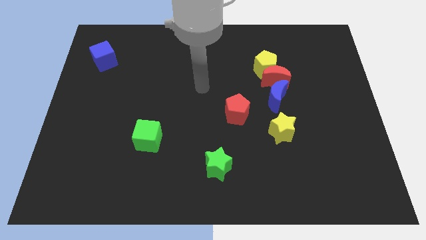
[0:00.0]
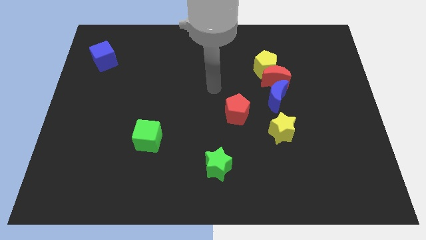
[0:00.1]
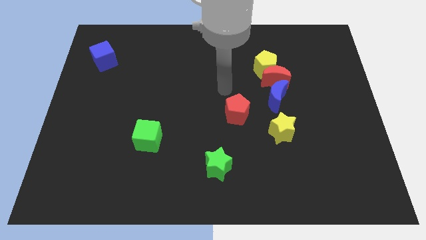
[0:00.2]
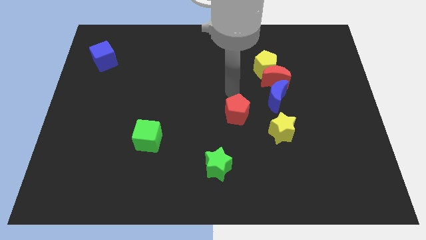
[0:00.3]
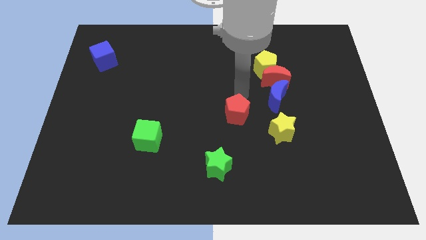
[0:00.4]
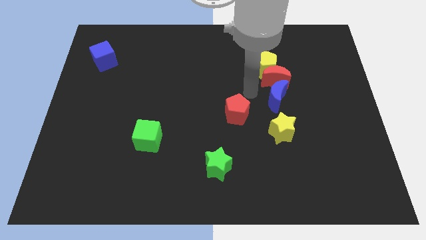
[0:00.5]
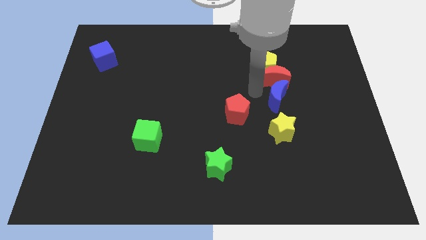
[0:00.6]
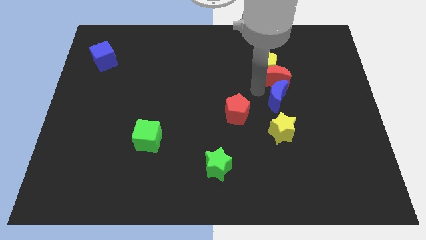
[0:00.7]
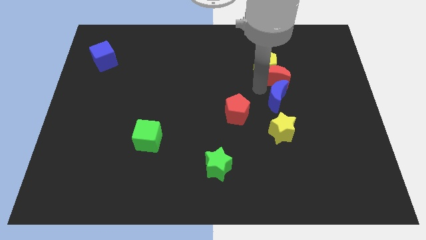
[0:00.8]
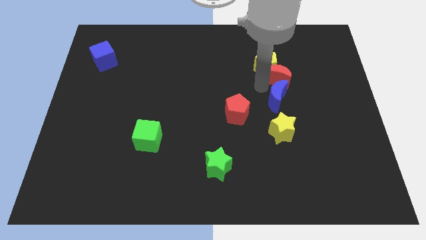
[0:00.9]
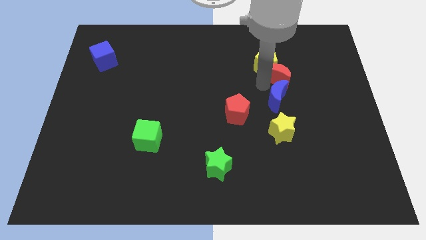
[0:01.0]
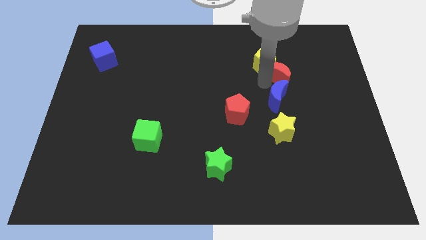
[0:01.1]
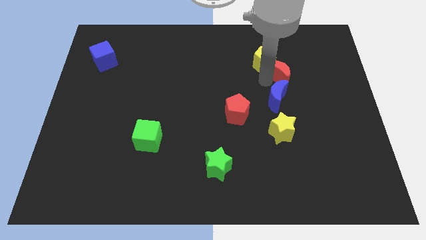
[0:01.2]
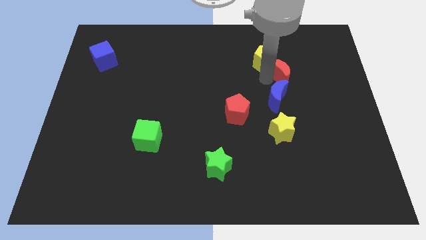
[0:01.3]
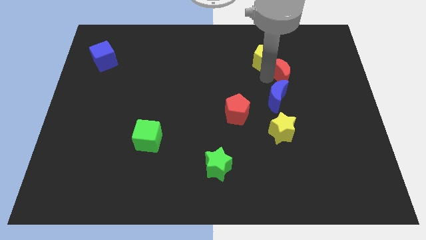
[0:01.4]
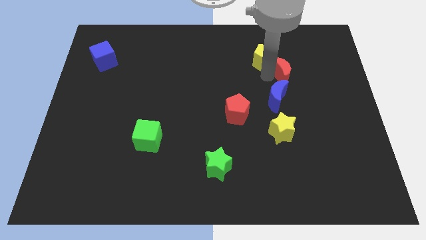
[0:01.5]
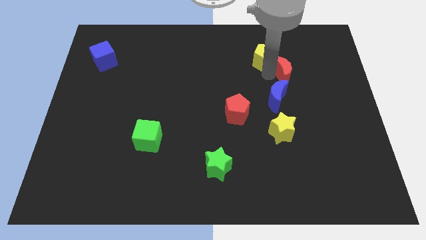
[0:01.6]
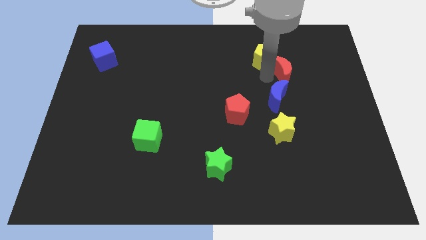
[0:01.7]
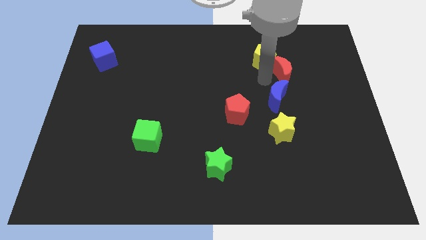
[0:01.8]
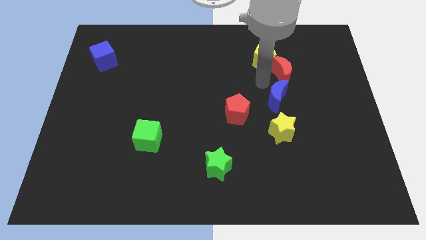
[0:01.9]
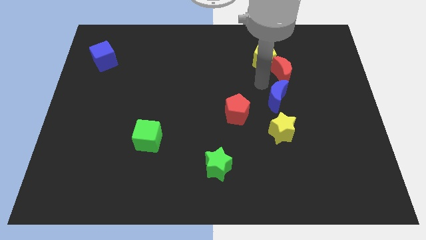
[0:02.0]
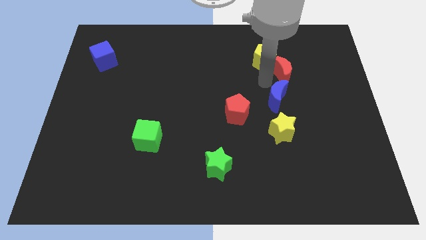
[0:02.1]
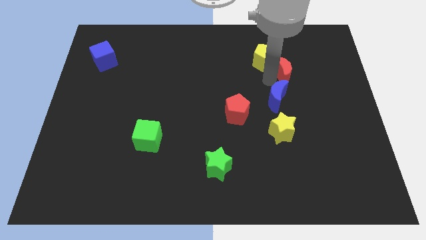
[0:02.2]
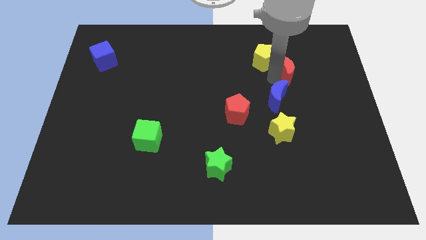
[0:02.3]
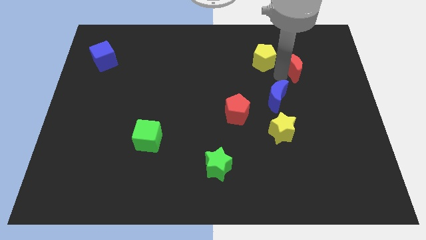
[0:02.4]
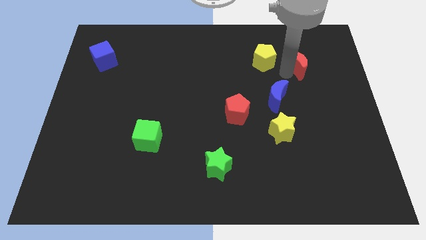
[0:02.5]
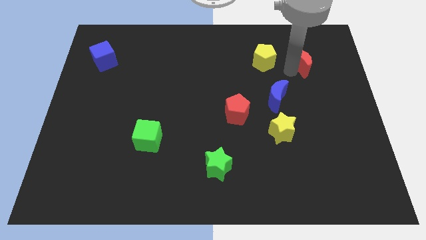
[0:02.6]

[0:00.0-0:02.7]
pull the red moon apart from the yellow pentagon and blue moon

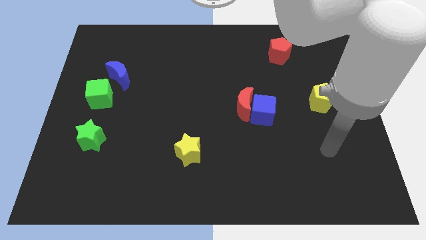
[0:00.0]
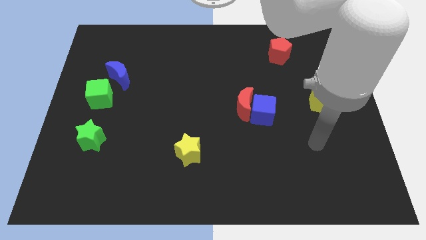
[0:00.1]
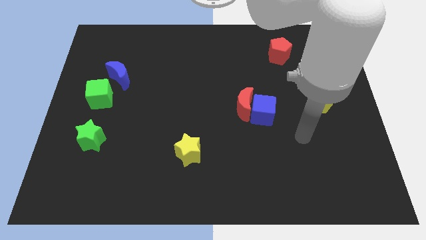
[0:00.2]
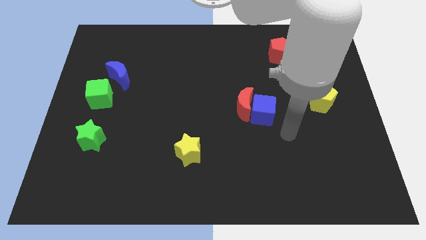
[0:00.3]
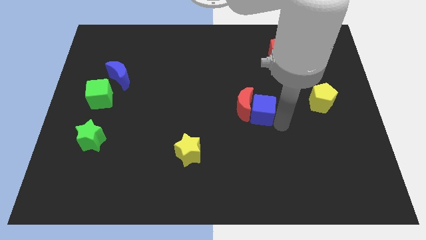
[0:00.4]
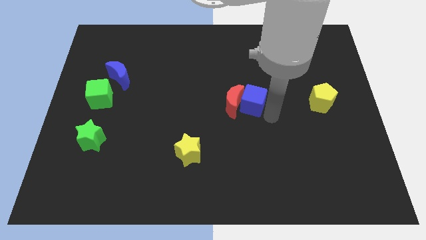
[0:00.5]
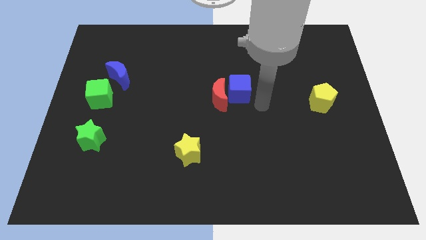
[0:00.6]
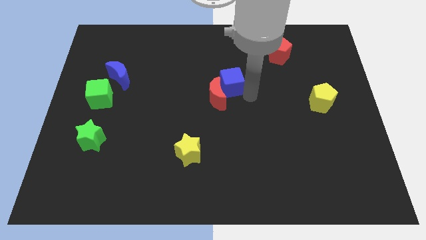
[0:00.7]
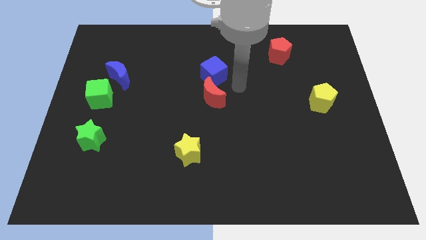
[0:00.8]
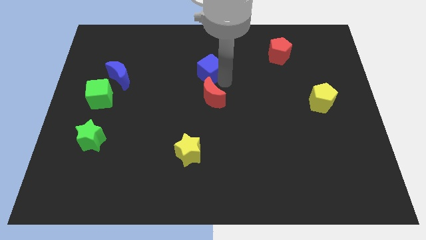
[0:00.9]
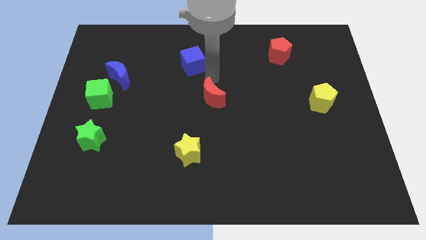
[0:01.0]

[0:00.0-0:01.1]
pull the red moon apart from the blue cube

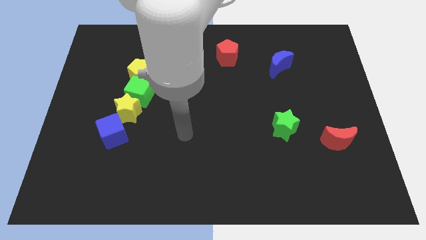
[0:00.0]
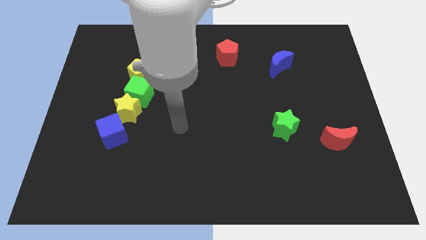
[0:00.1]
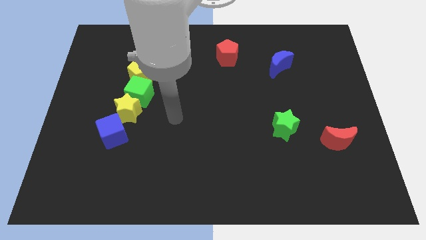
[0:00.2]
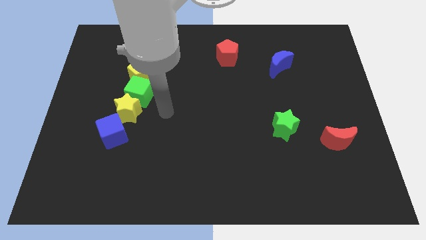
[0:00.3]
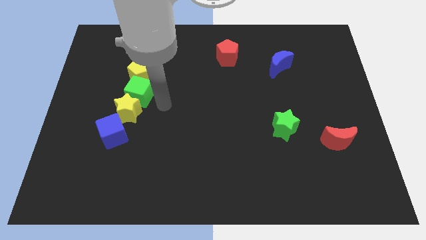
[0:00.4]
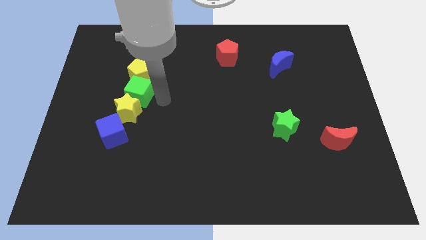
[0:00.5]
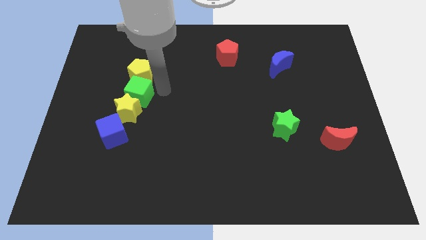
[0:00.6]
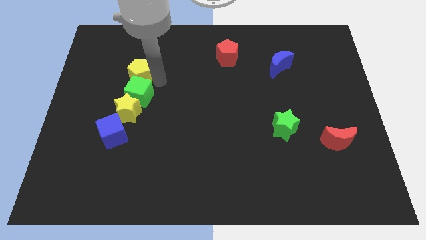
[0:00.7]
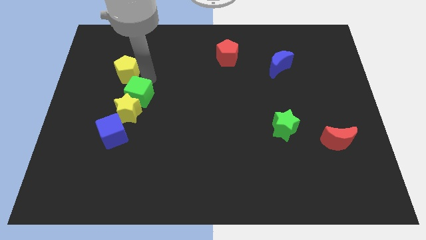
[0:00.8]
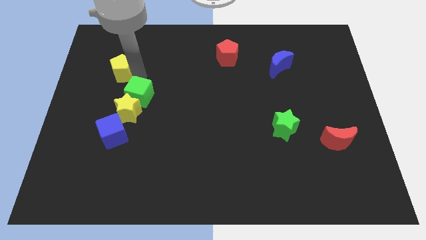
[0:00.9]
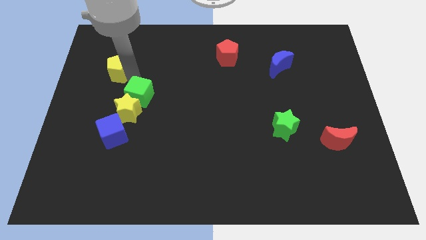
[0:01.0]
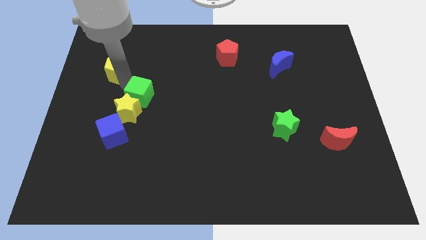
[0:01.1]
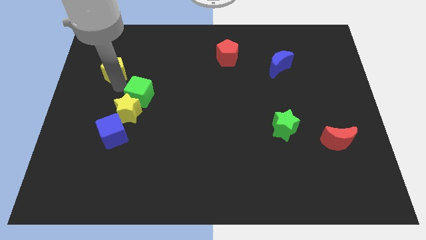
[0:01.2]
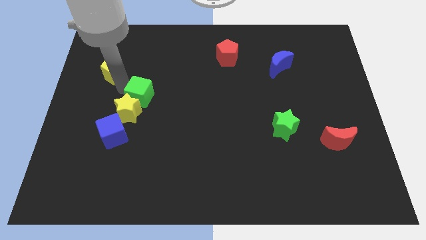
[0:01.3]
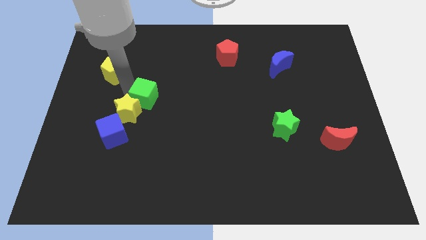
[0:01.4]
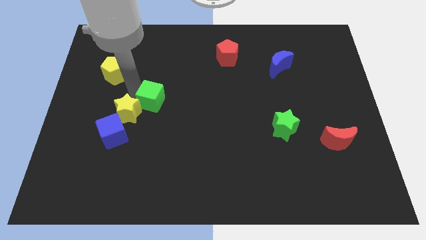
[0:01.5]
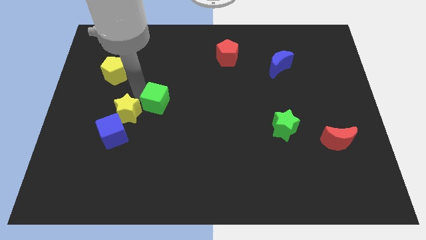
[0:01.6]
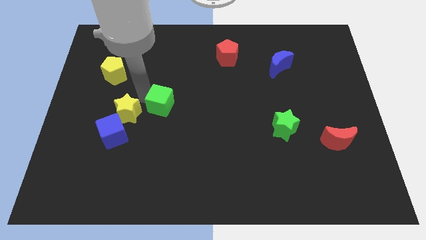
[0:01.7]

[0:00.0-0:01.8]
pull the green cube apart from the yellow star and yellow pentagon

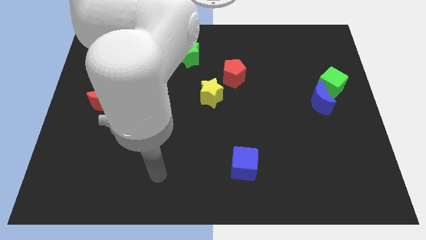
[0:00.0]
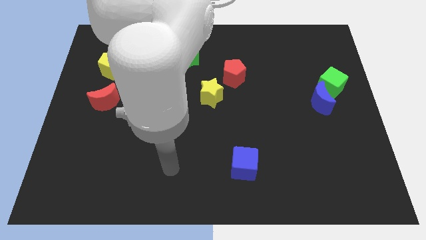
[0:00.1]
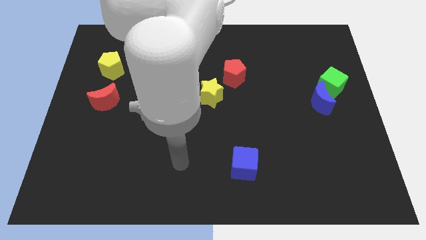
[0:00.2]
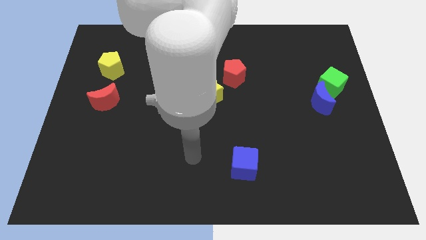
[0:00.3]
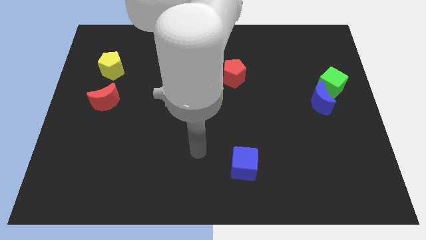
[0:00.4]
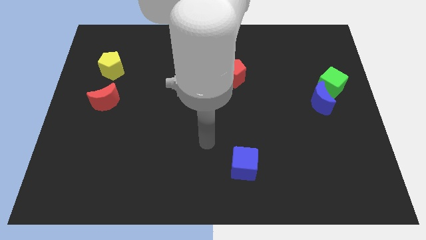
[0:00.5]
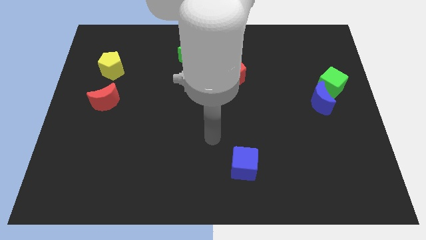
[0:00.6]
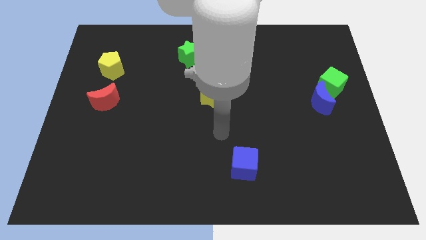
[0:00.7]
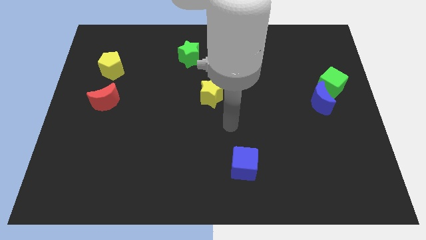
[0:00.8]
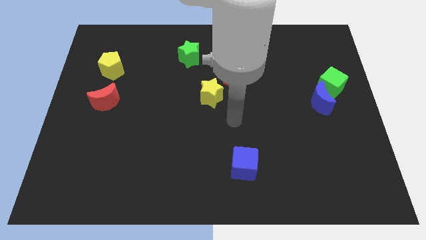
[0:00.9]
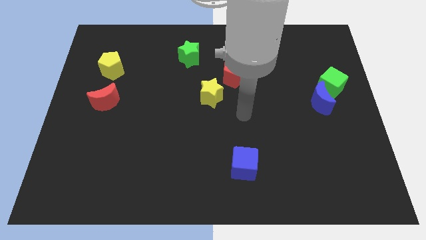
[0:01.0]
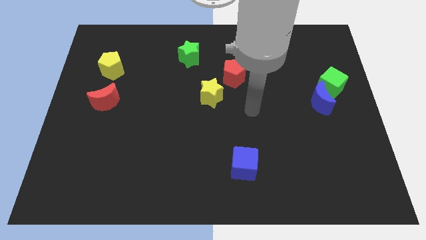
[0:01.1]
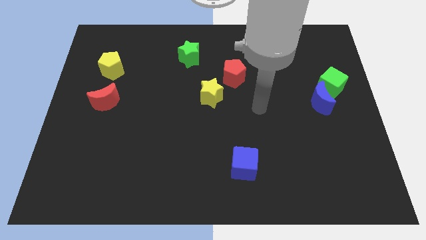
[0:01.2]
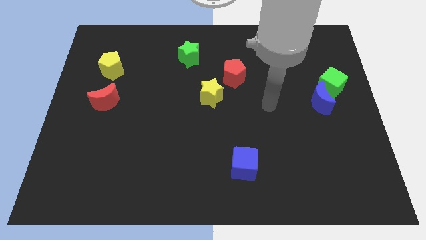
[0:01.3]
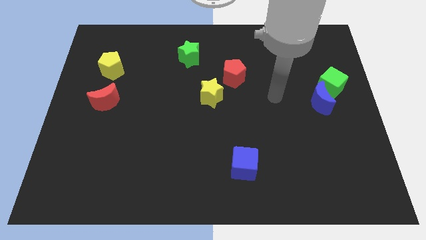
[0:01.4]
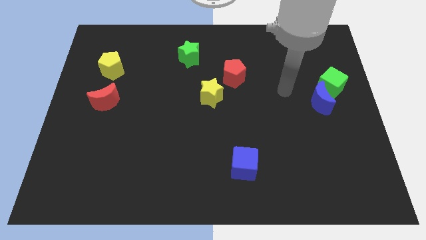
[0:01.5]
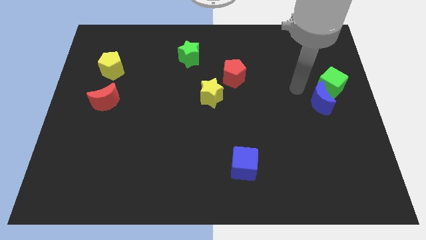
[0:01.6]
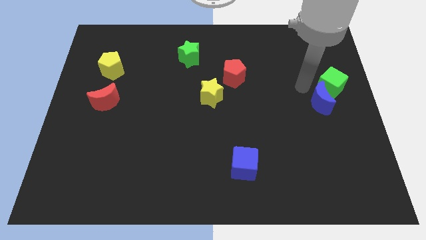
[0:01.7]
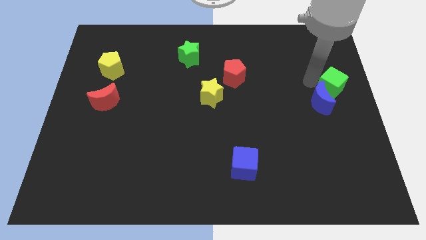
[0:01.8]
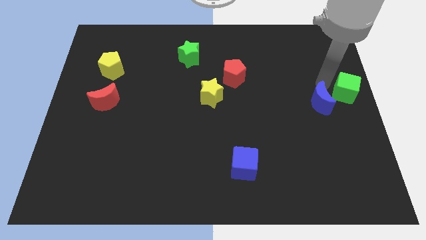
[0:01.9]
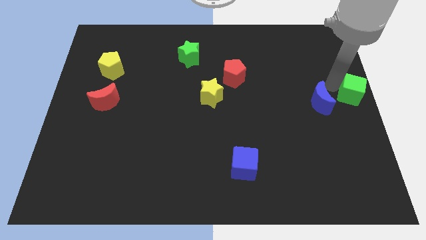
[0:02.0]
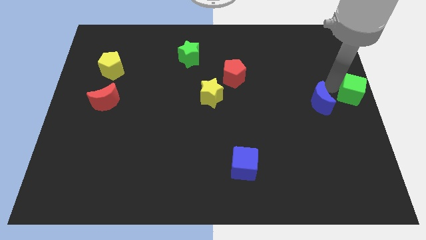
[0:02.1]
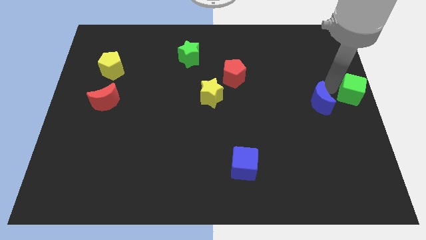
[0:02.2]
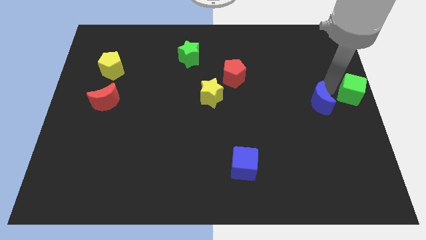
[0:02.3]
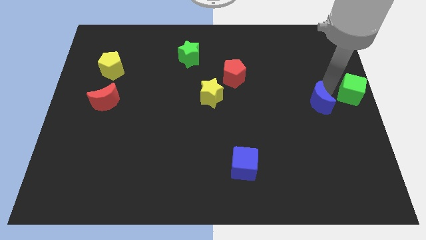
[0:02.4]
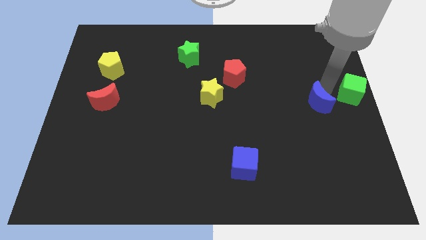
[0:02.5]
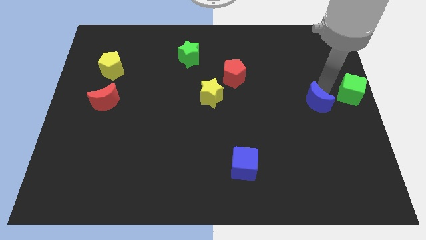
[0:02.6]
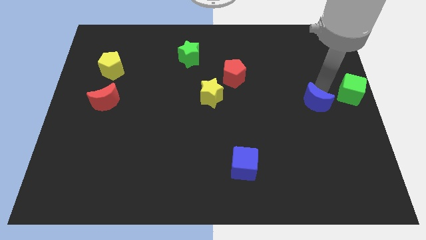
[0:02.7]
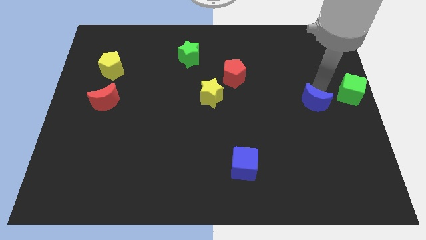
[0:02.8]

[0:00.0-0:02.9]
pull the blue moon apart from the green cube

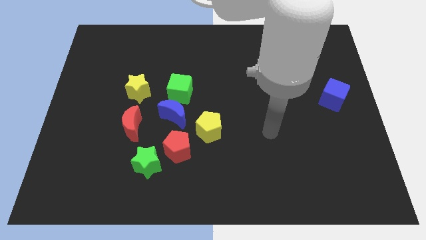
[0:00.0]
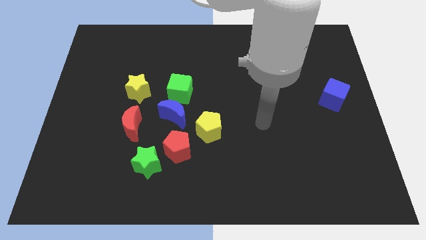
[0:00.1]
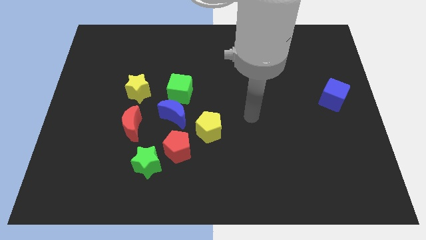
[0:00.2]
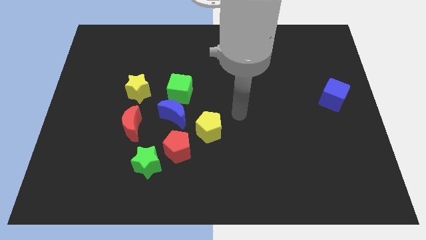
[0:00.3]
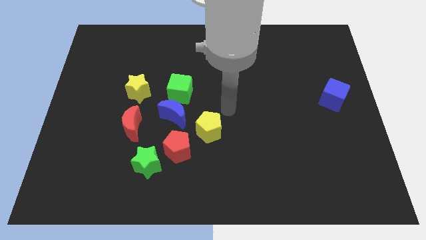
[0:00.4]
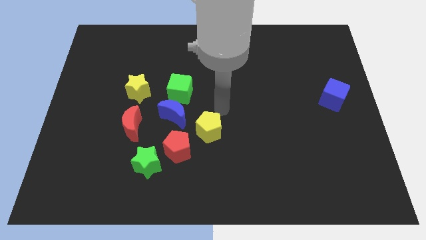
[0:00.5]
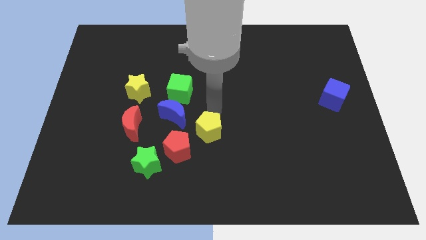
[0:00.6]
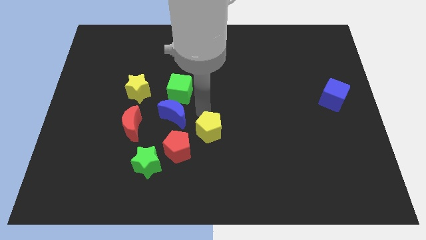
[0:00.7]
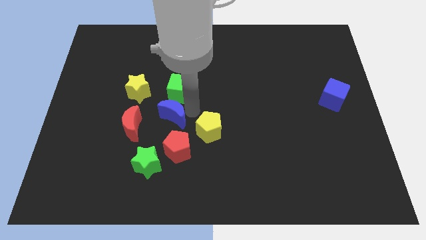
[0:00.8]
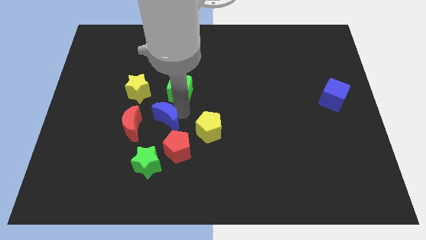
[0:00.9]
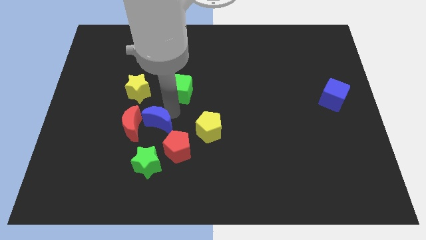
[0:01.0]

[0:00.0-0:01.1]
pull the green cube apart from the blue moon
